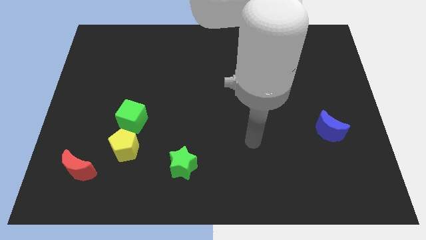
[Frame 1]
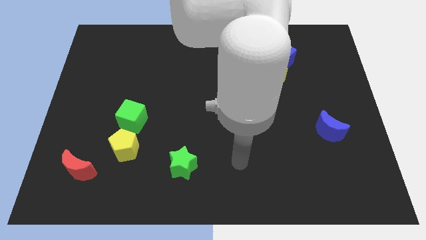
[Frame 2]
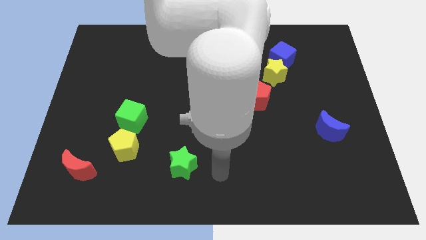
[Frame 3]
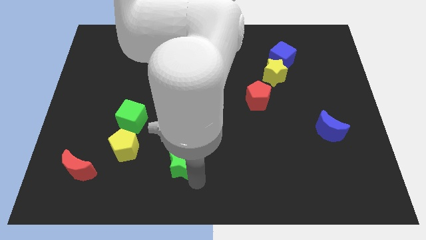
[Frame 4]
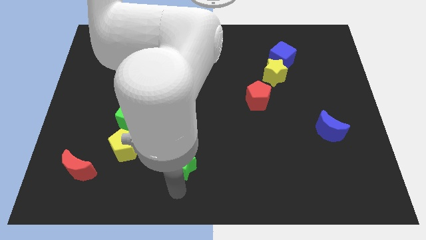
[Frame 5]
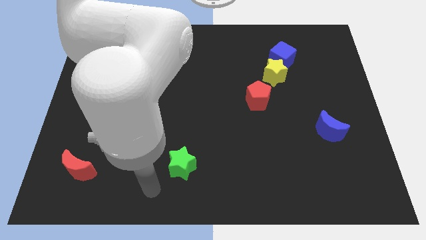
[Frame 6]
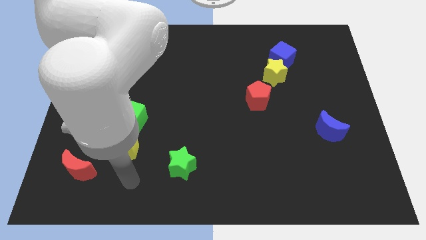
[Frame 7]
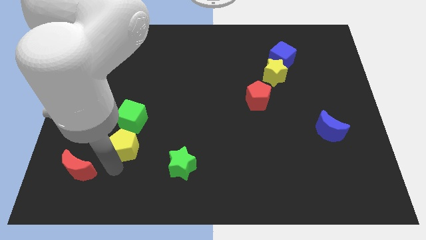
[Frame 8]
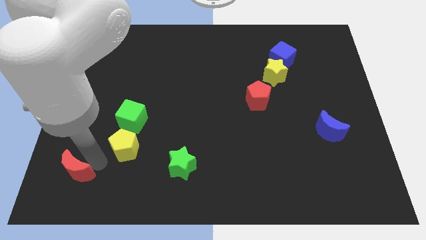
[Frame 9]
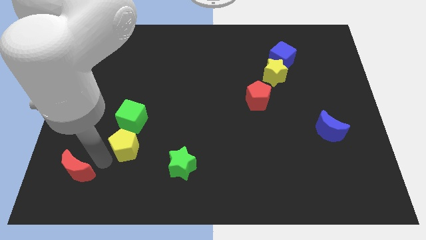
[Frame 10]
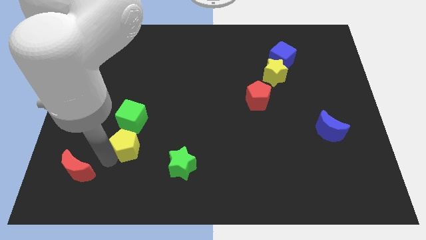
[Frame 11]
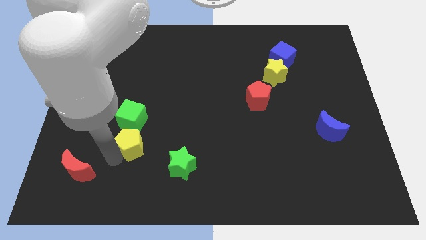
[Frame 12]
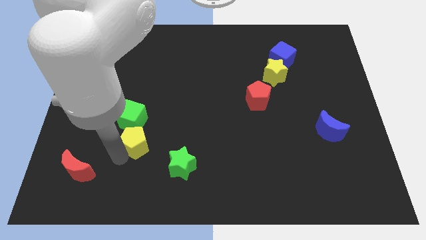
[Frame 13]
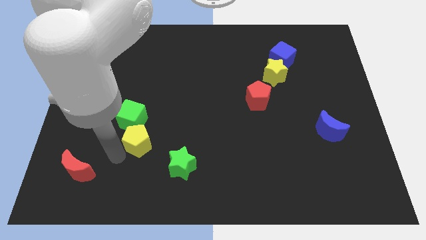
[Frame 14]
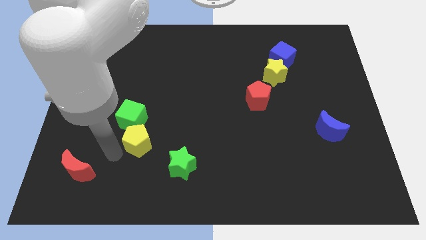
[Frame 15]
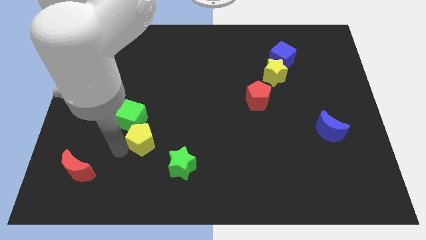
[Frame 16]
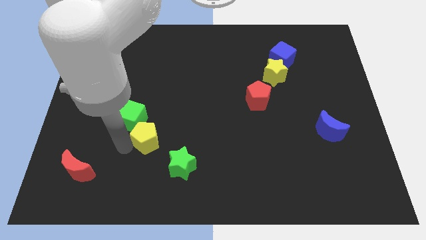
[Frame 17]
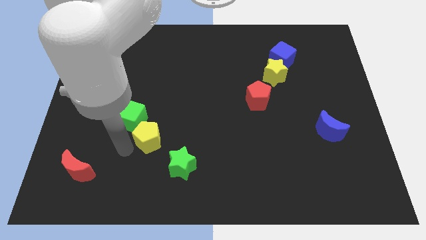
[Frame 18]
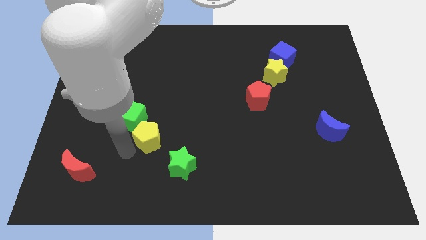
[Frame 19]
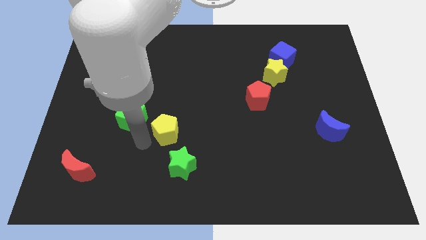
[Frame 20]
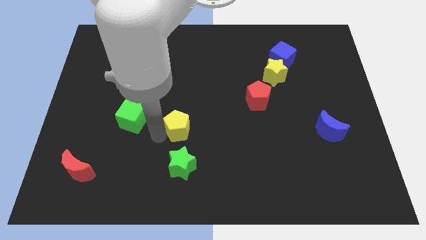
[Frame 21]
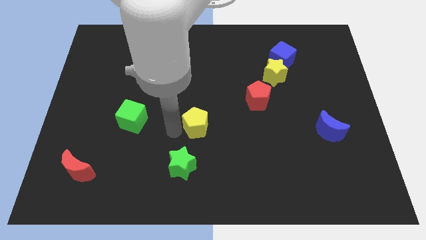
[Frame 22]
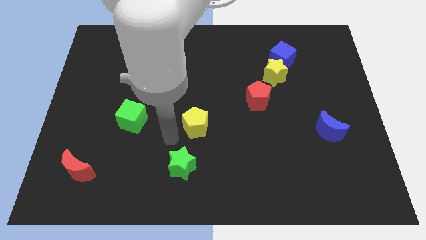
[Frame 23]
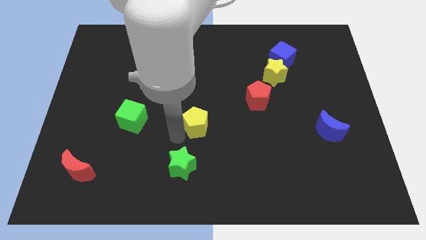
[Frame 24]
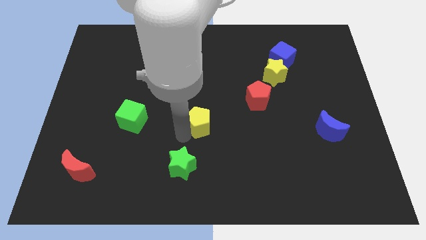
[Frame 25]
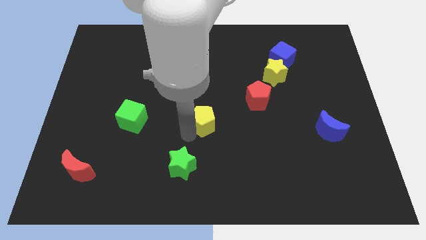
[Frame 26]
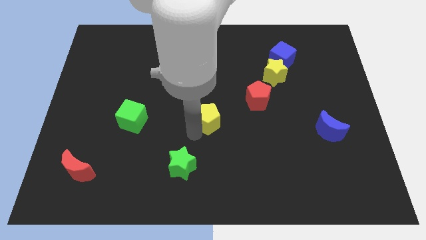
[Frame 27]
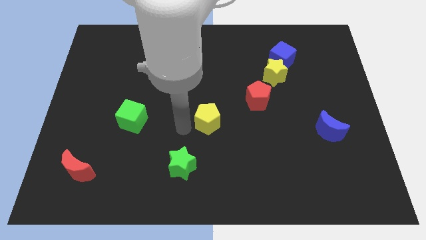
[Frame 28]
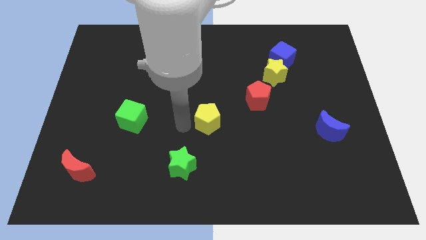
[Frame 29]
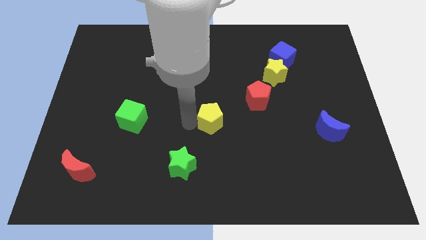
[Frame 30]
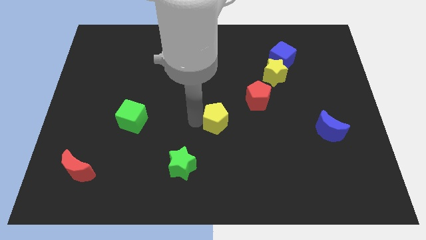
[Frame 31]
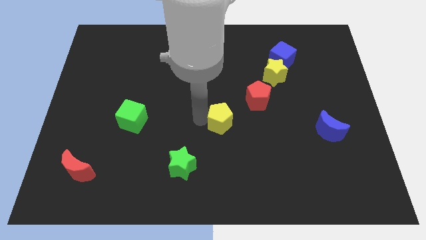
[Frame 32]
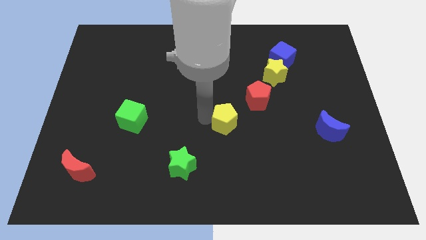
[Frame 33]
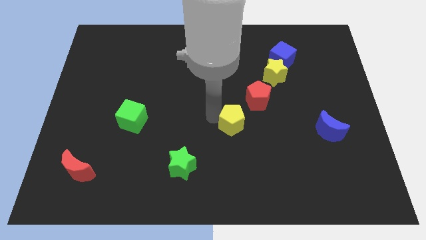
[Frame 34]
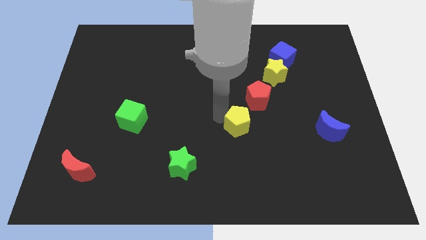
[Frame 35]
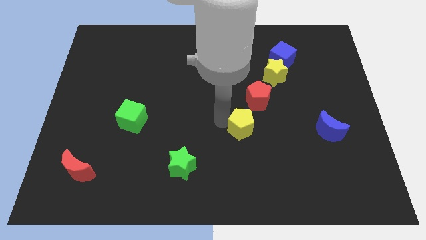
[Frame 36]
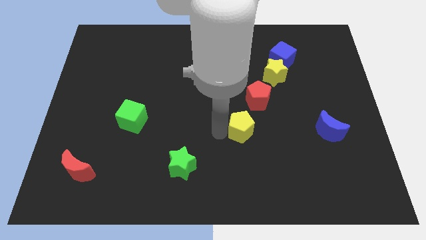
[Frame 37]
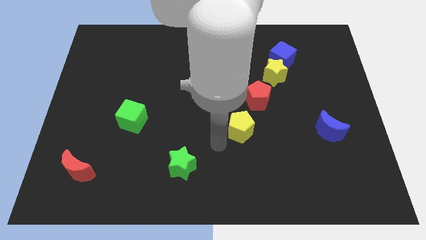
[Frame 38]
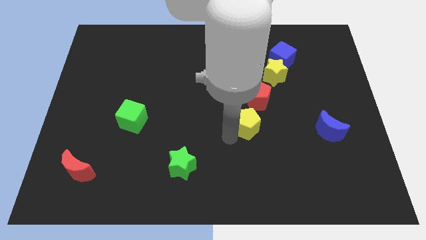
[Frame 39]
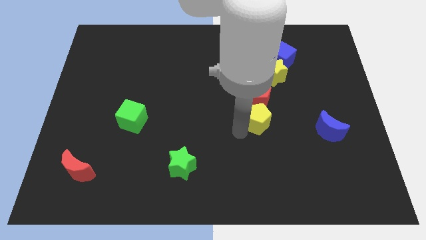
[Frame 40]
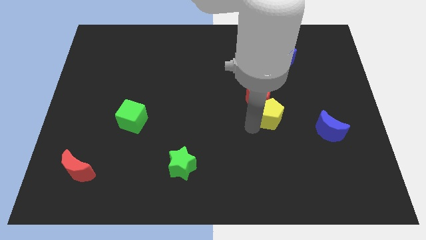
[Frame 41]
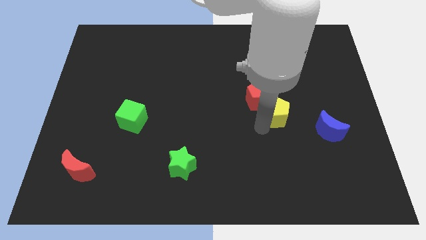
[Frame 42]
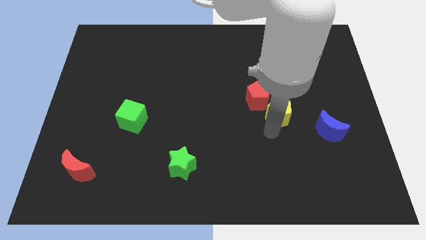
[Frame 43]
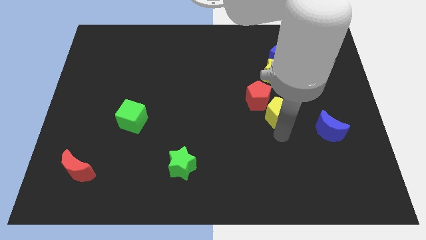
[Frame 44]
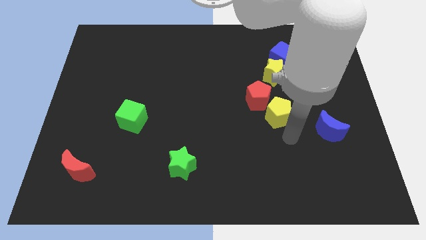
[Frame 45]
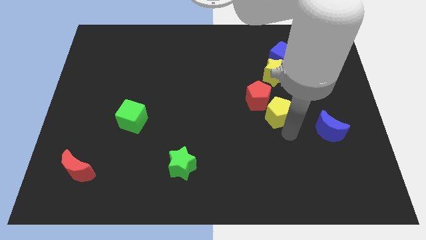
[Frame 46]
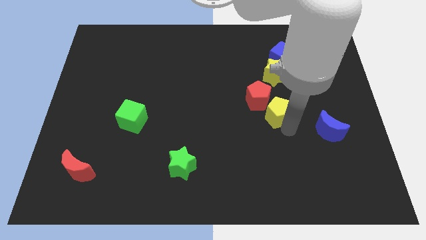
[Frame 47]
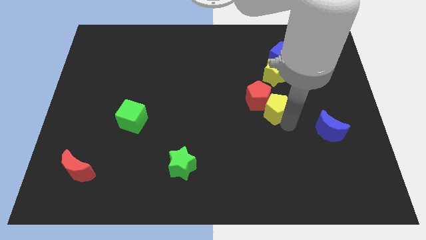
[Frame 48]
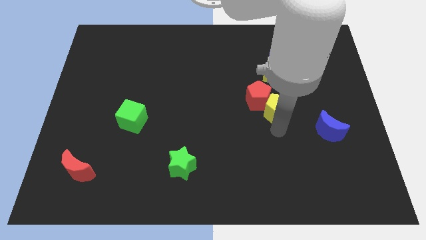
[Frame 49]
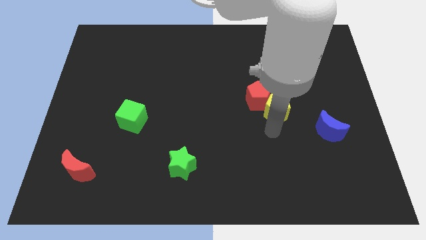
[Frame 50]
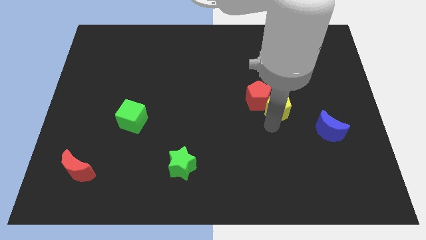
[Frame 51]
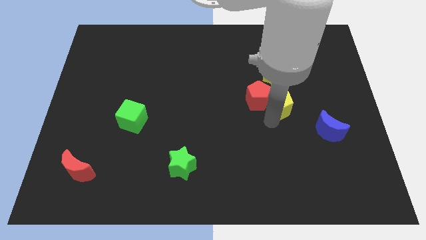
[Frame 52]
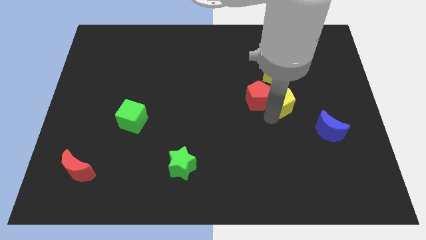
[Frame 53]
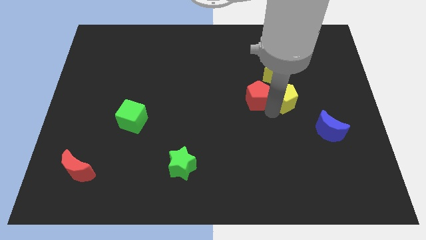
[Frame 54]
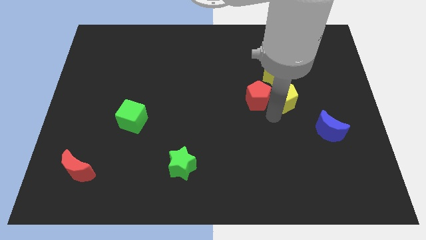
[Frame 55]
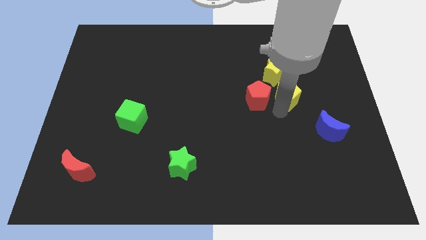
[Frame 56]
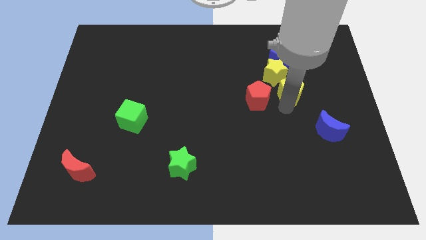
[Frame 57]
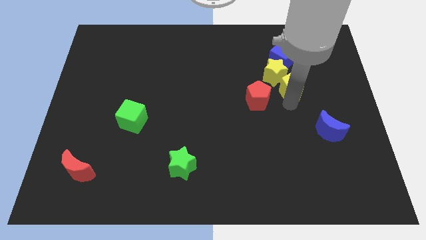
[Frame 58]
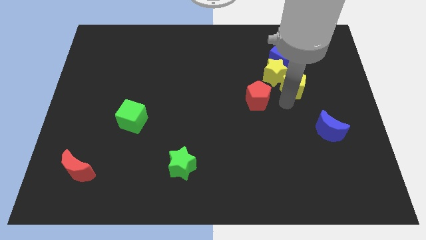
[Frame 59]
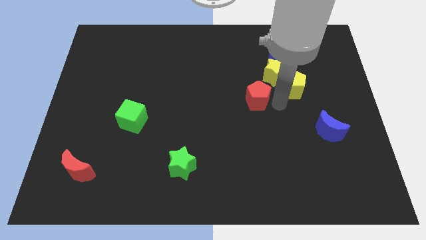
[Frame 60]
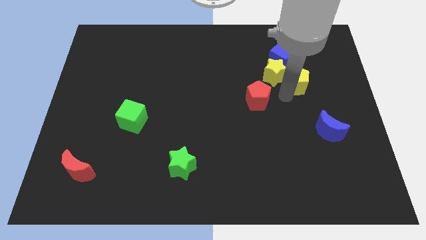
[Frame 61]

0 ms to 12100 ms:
put the yellow pentagon to the bottom right of the blue cube
